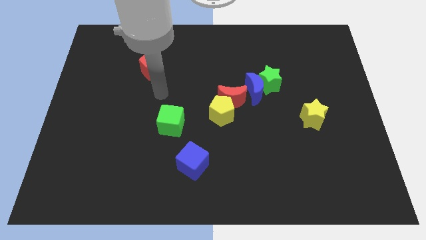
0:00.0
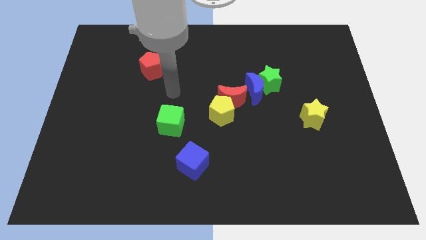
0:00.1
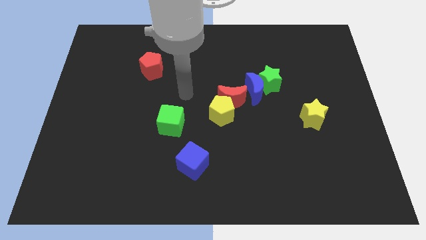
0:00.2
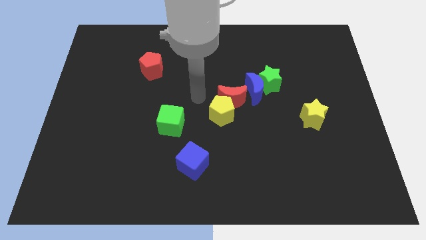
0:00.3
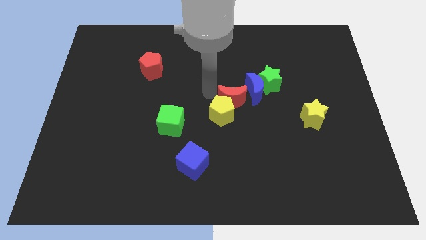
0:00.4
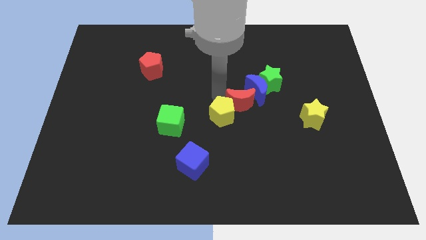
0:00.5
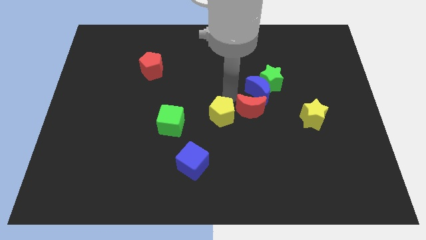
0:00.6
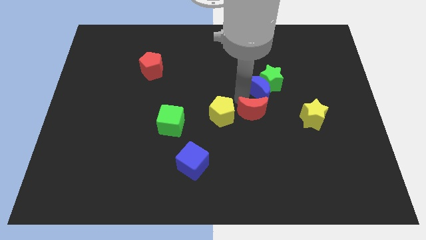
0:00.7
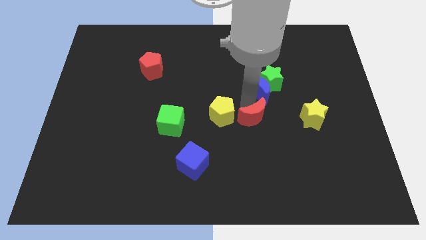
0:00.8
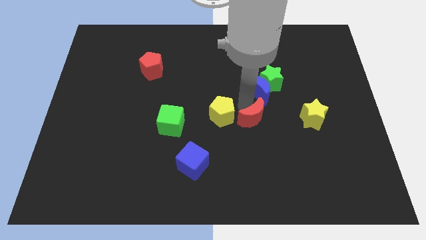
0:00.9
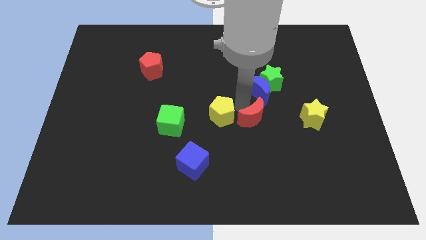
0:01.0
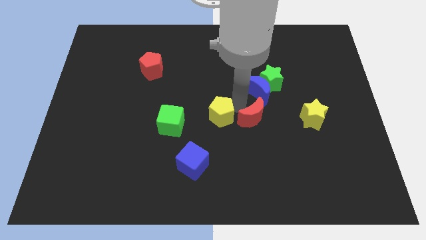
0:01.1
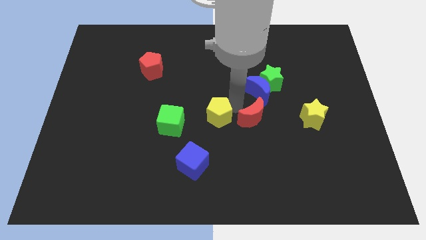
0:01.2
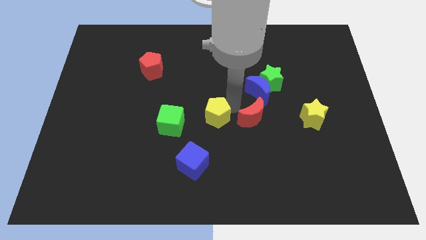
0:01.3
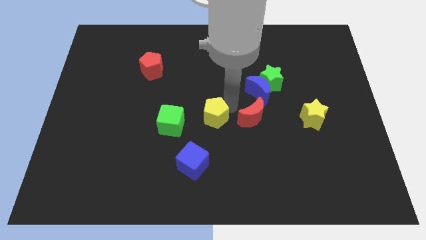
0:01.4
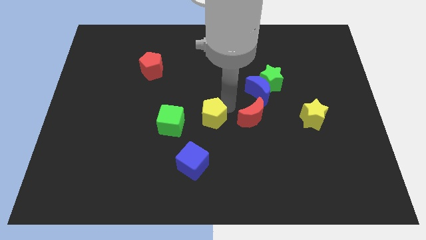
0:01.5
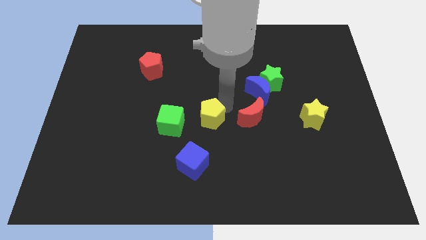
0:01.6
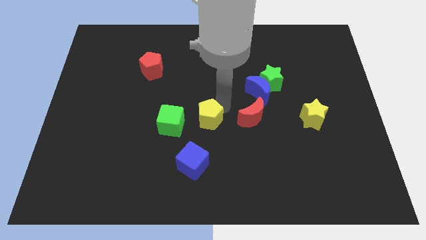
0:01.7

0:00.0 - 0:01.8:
pull the yellow pentagon apart from the red moon

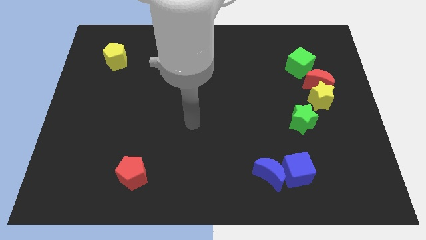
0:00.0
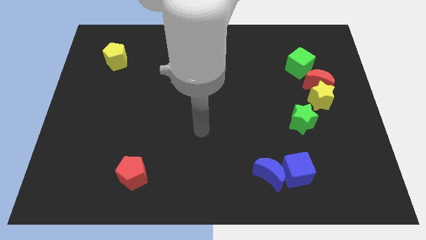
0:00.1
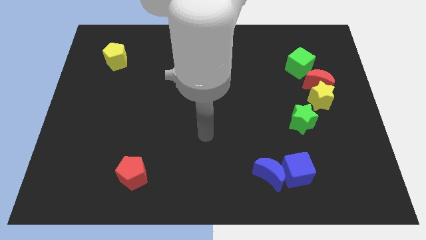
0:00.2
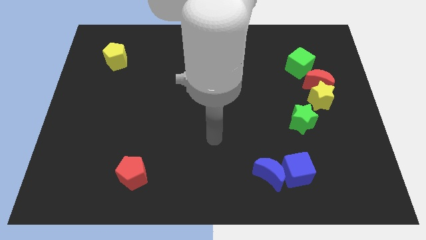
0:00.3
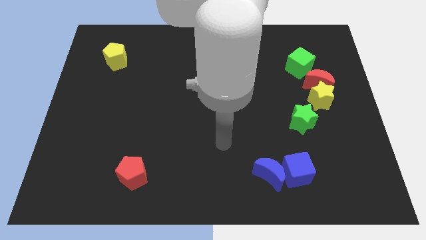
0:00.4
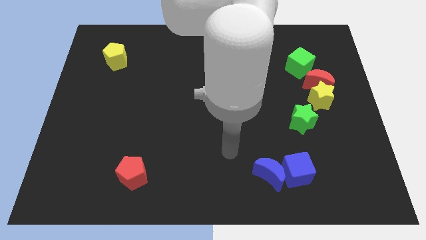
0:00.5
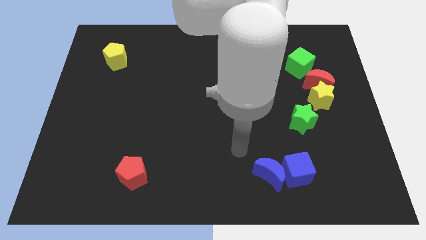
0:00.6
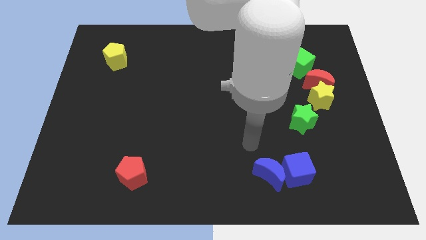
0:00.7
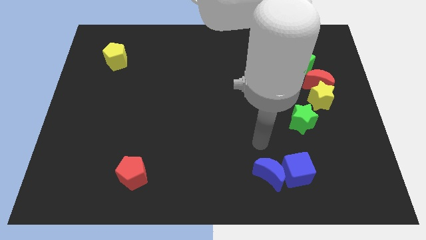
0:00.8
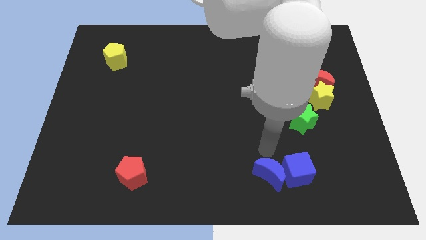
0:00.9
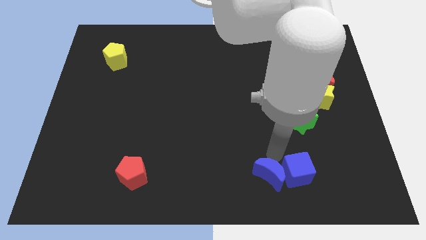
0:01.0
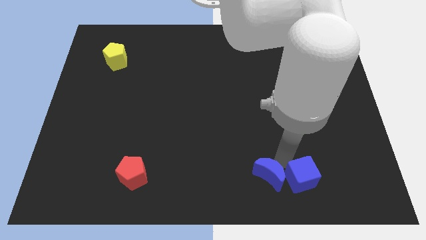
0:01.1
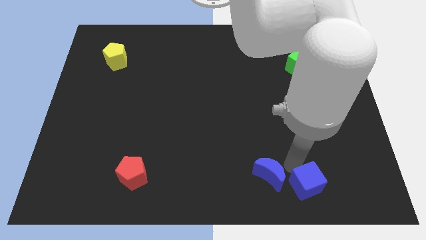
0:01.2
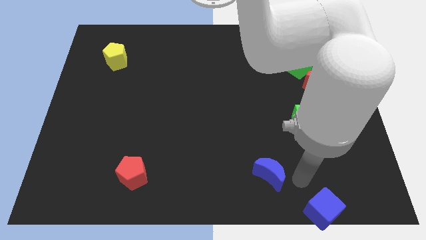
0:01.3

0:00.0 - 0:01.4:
separate the blue moon from the blue cube

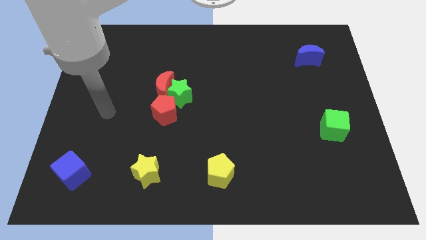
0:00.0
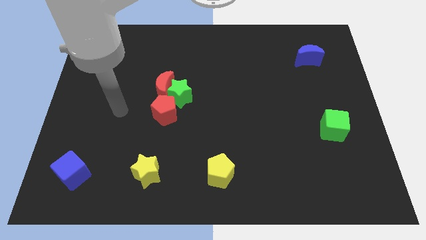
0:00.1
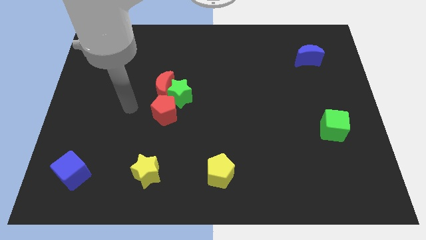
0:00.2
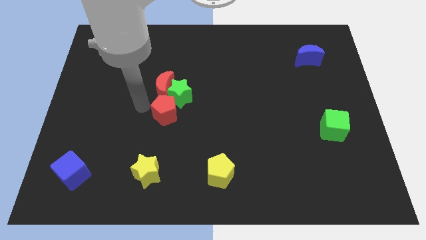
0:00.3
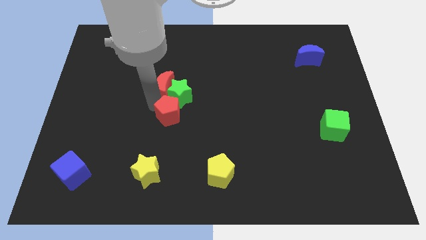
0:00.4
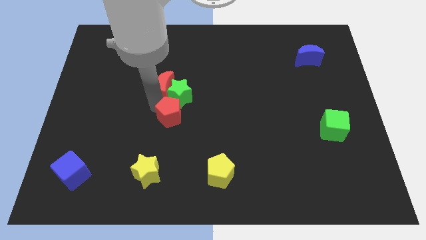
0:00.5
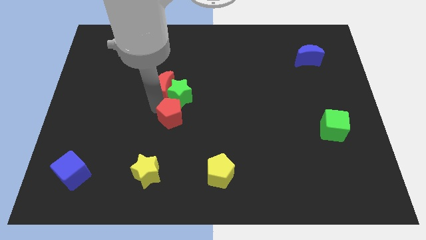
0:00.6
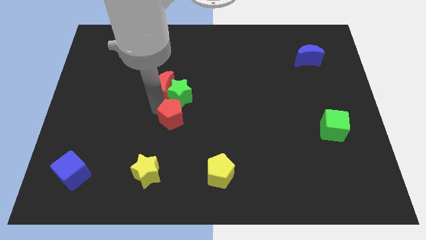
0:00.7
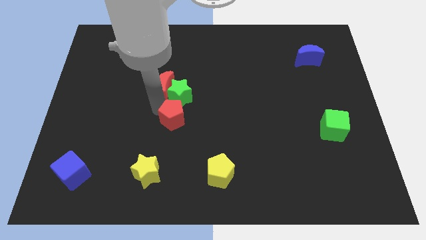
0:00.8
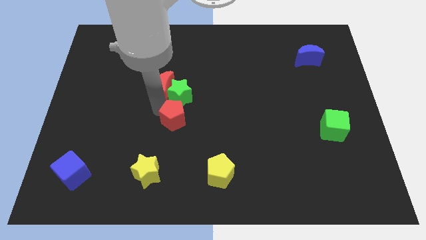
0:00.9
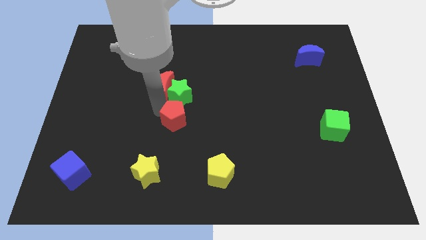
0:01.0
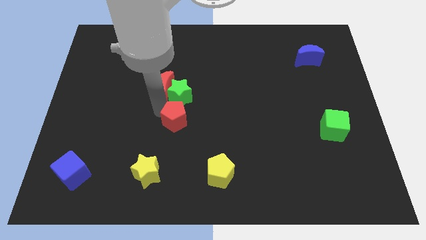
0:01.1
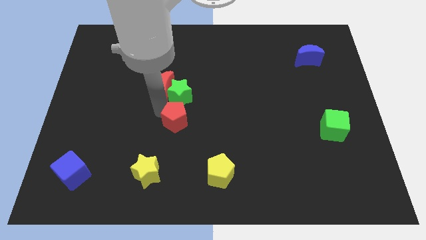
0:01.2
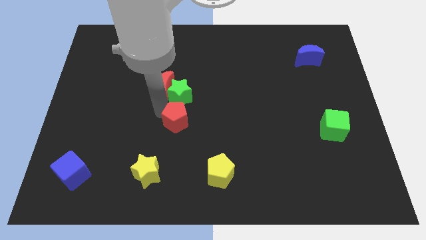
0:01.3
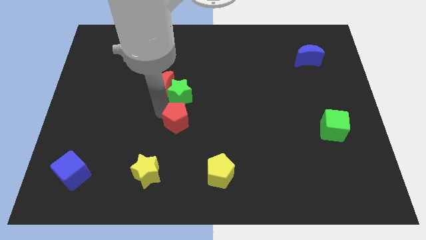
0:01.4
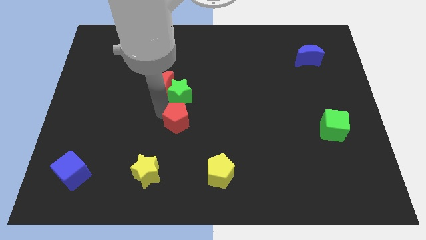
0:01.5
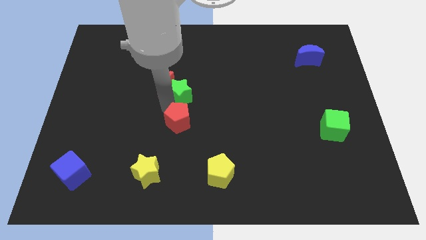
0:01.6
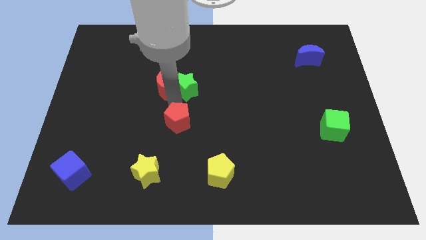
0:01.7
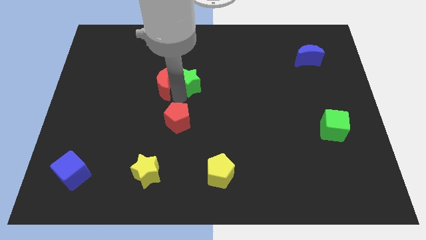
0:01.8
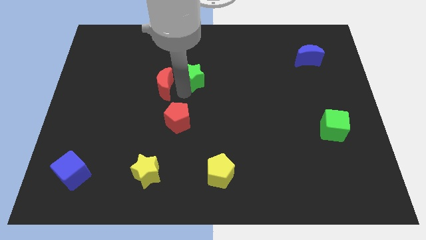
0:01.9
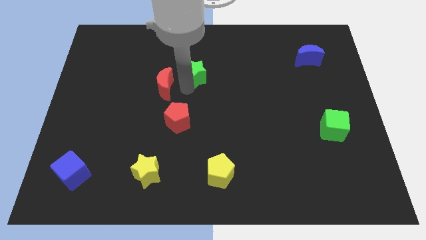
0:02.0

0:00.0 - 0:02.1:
separate the green star from the red moon and red pentagon

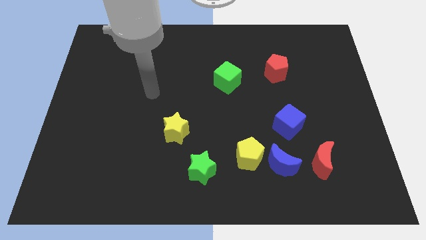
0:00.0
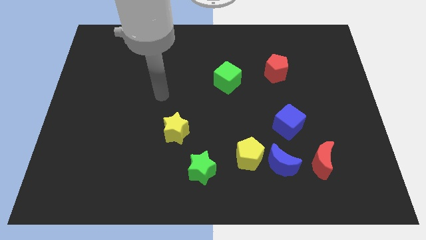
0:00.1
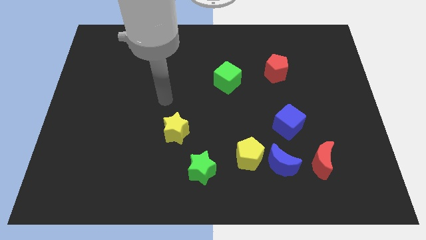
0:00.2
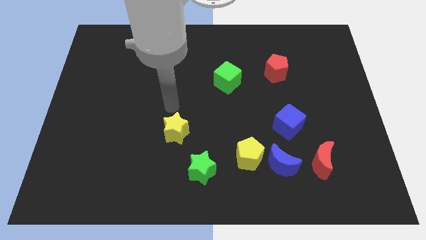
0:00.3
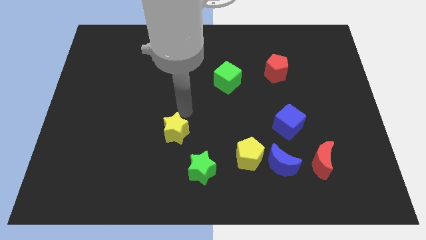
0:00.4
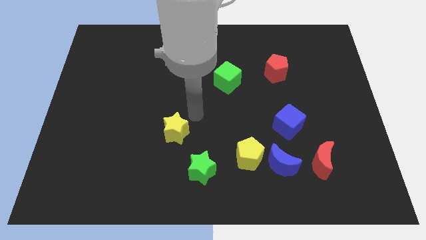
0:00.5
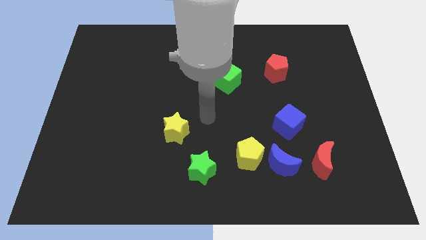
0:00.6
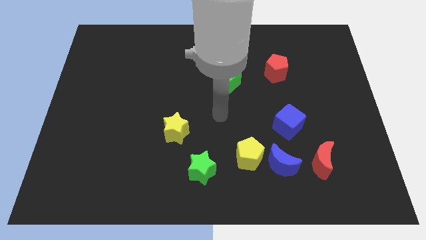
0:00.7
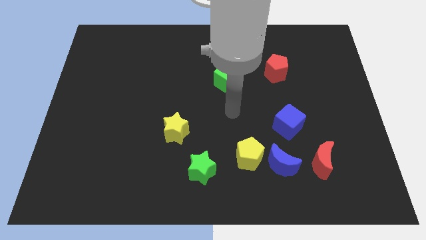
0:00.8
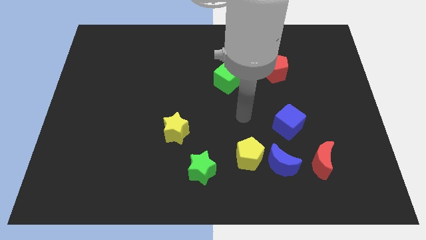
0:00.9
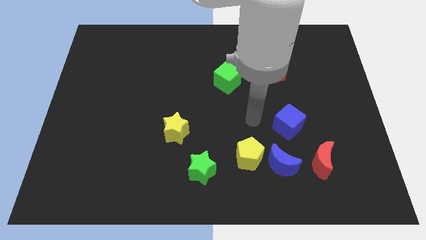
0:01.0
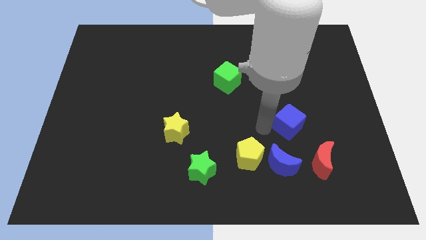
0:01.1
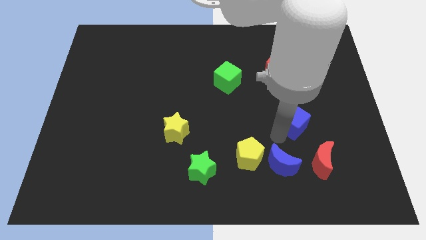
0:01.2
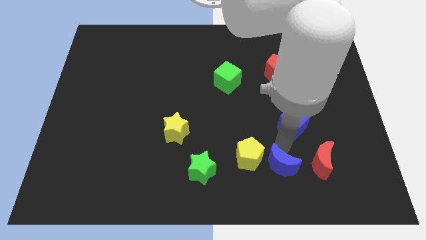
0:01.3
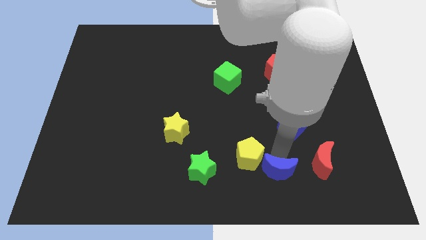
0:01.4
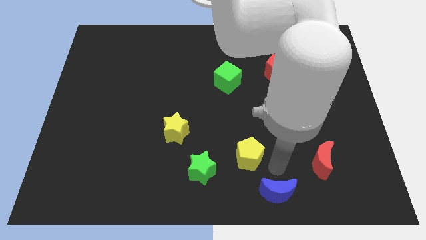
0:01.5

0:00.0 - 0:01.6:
separate the yellow pentagon from the blue moon

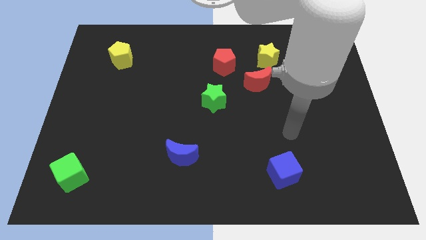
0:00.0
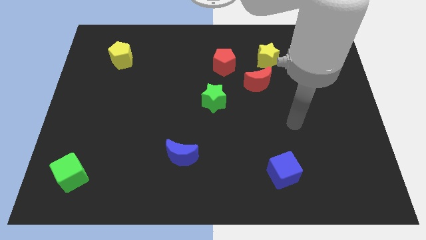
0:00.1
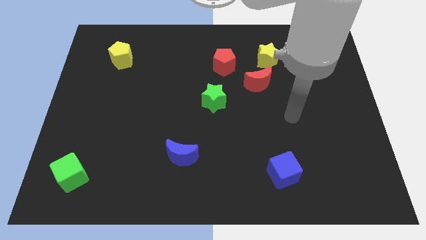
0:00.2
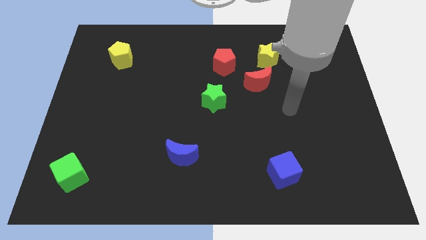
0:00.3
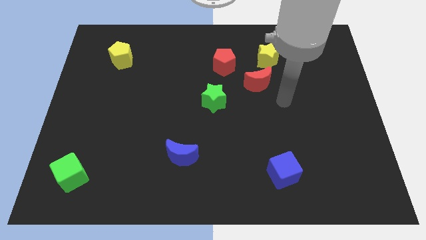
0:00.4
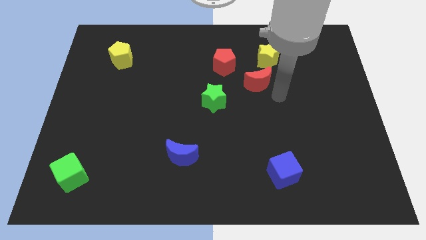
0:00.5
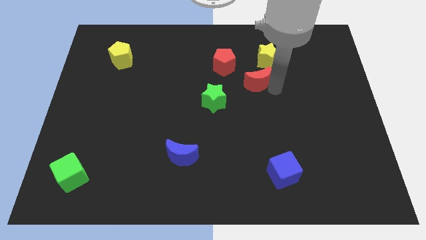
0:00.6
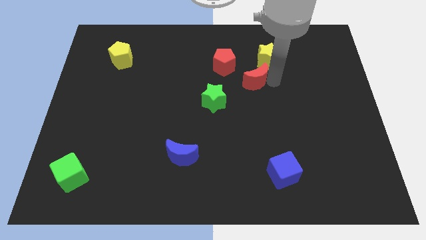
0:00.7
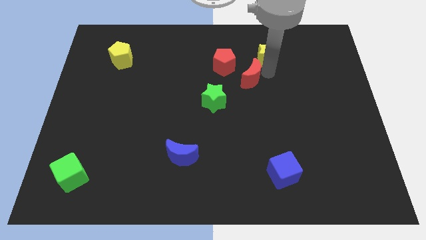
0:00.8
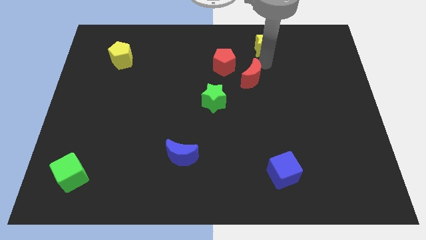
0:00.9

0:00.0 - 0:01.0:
pull the red moon apart from the yellow star

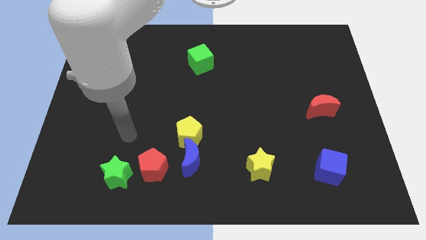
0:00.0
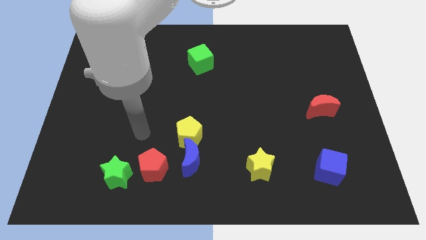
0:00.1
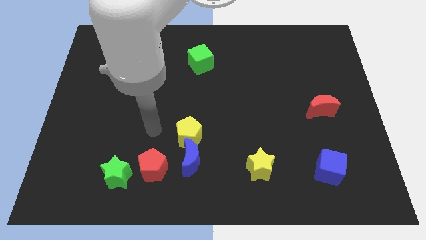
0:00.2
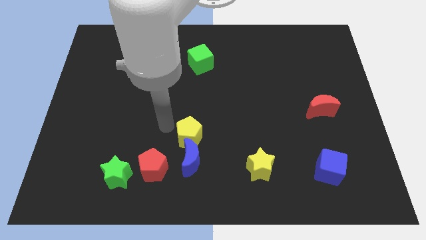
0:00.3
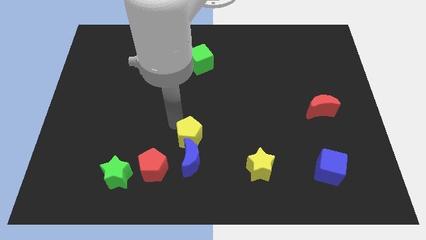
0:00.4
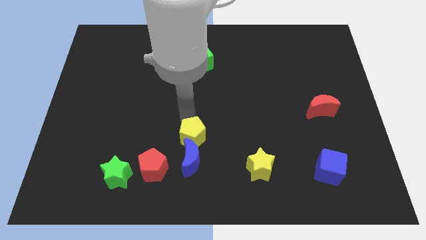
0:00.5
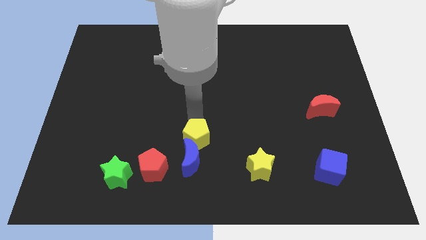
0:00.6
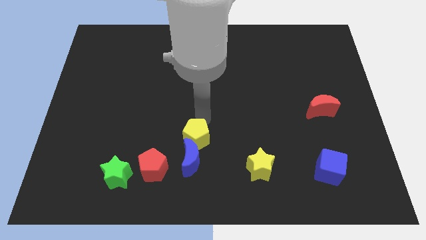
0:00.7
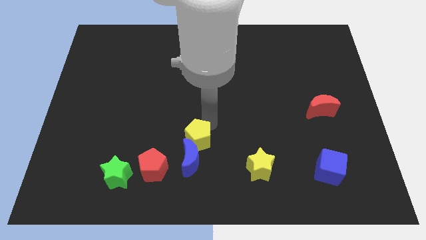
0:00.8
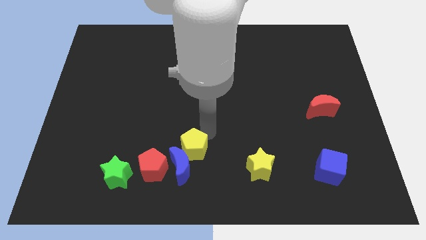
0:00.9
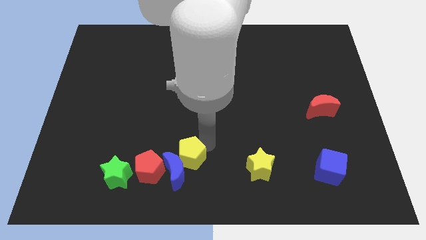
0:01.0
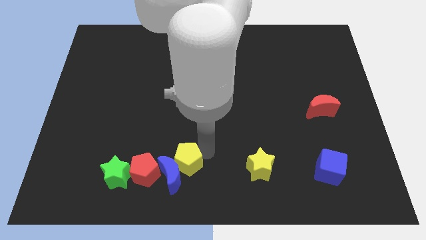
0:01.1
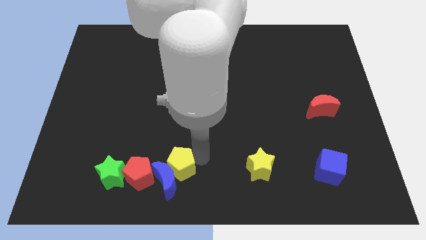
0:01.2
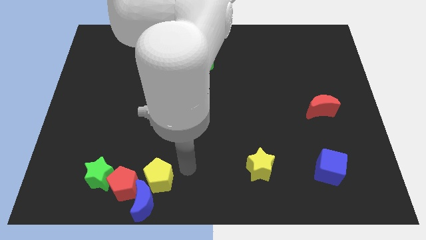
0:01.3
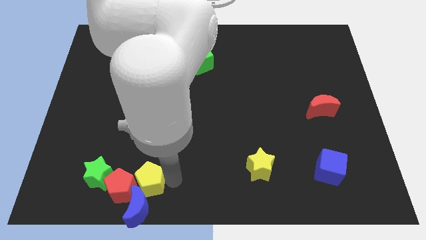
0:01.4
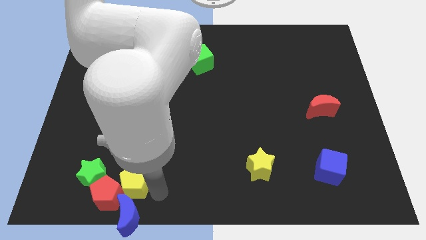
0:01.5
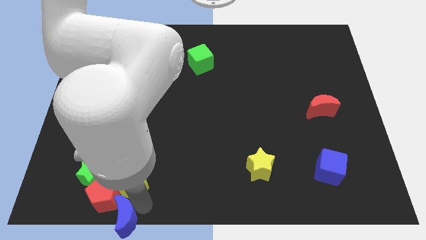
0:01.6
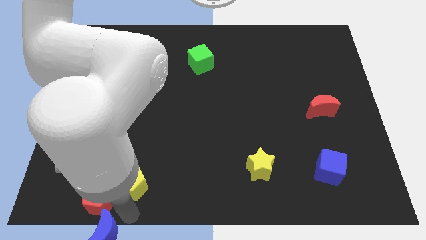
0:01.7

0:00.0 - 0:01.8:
move the yellow pentagon away from the blue moon
